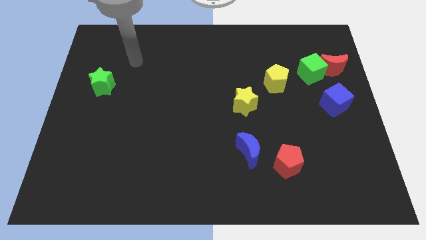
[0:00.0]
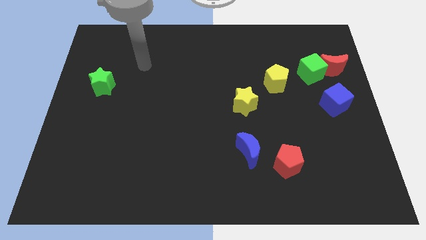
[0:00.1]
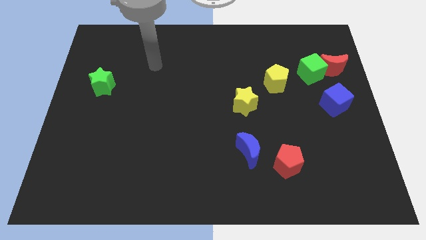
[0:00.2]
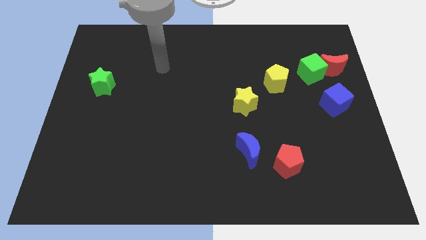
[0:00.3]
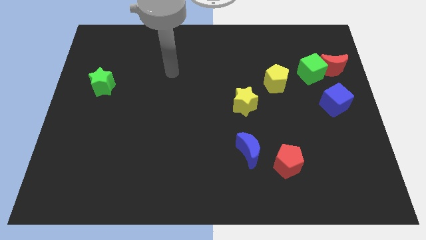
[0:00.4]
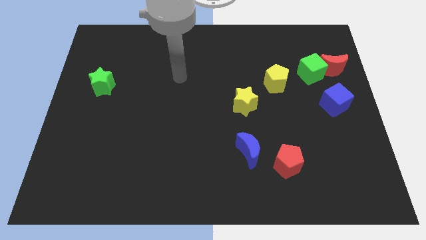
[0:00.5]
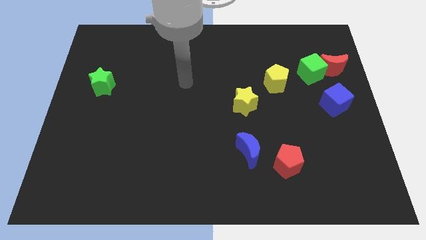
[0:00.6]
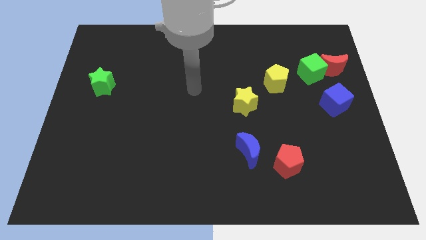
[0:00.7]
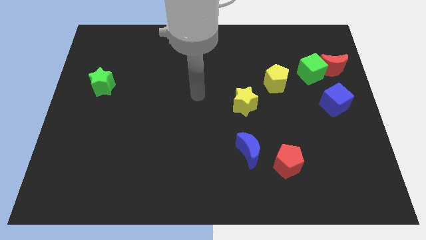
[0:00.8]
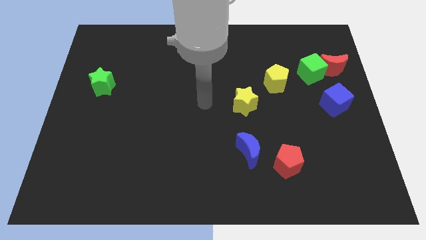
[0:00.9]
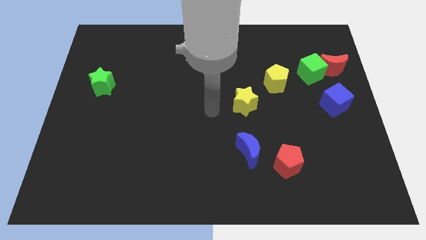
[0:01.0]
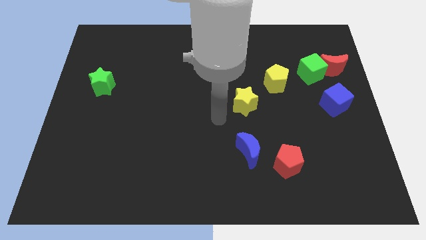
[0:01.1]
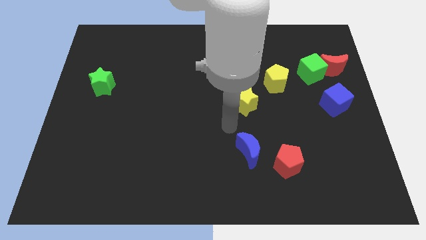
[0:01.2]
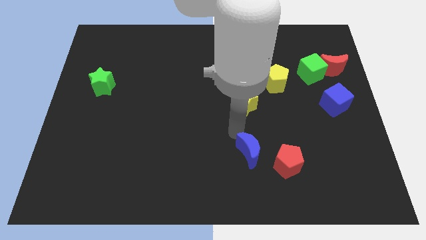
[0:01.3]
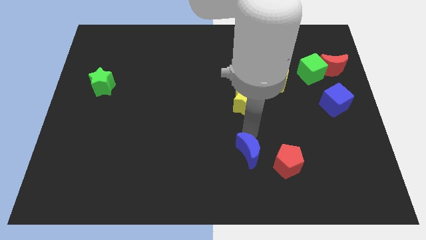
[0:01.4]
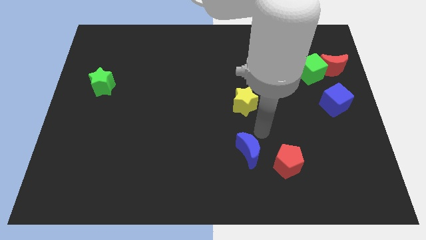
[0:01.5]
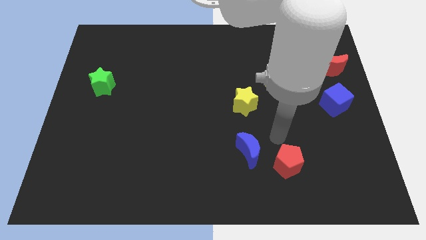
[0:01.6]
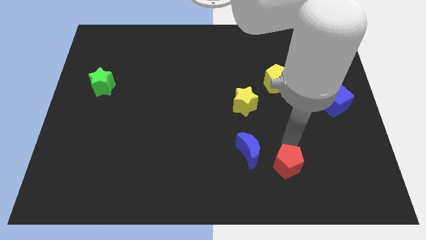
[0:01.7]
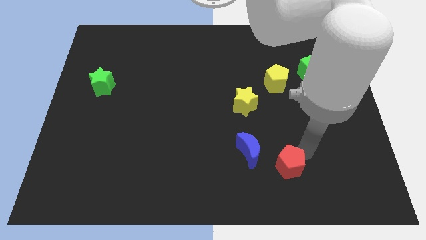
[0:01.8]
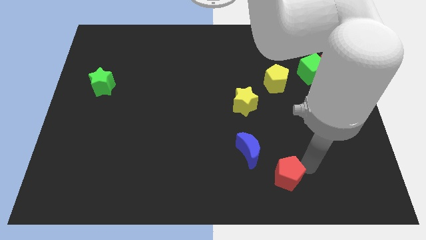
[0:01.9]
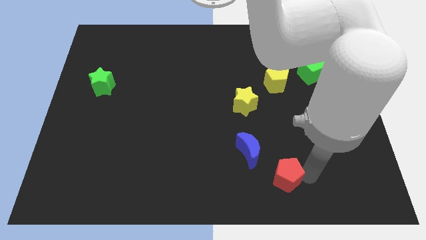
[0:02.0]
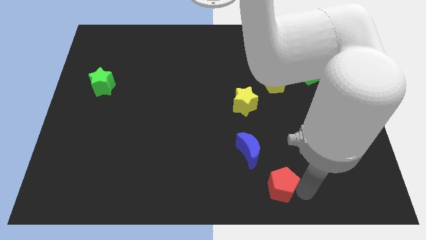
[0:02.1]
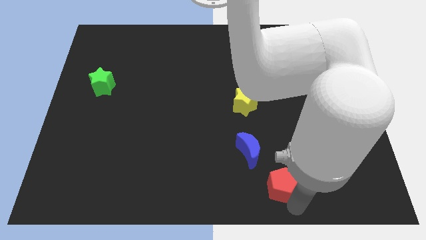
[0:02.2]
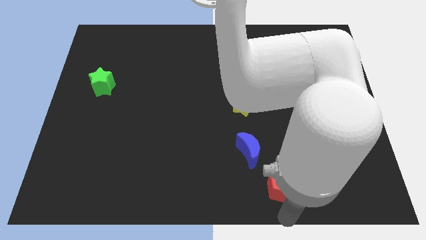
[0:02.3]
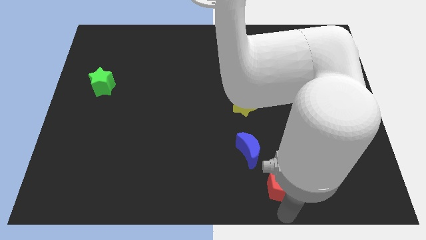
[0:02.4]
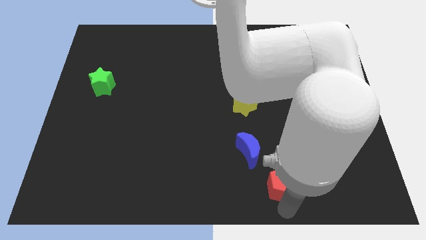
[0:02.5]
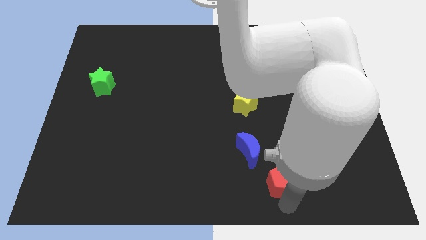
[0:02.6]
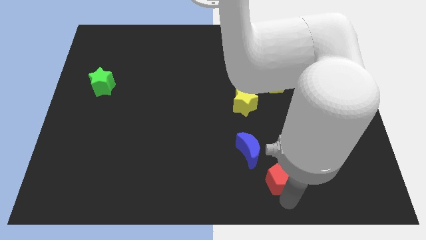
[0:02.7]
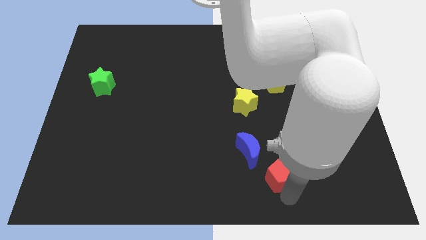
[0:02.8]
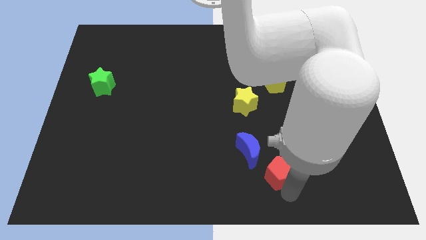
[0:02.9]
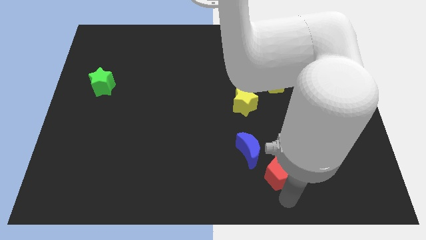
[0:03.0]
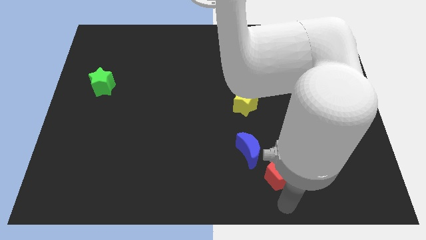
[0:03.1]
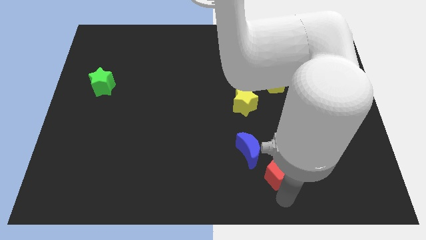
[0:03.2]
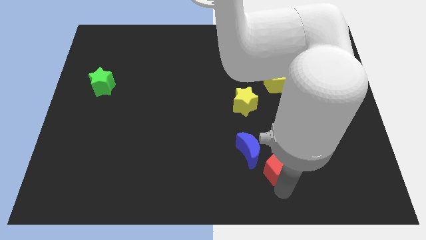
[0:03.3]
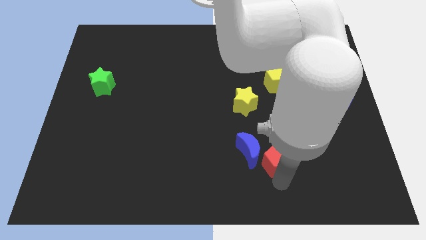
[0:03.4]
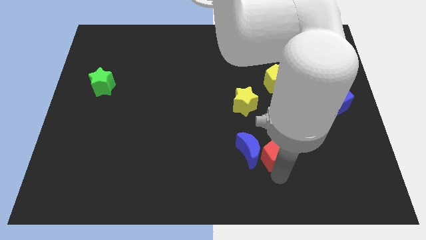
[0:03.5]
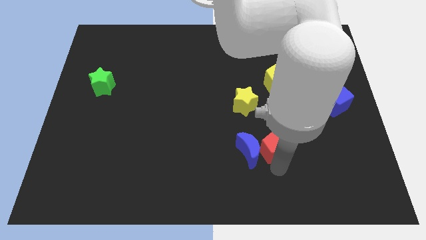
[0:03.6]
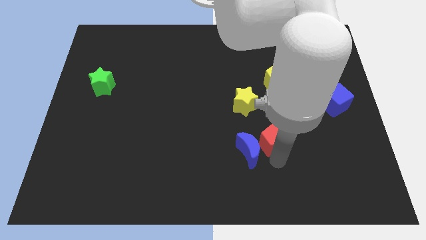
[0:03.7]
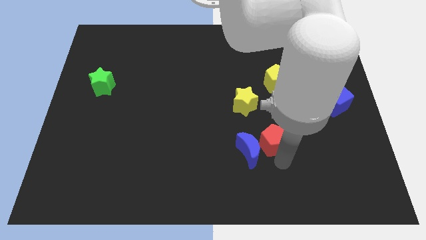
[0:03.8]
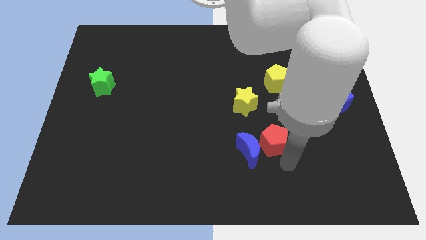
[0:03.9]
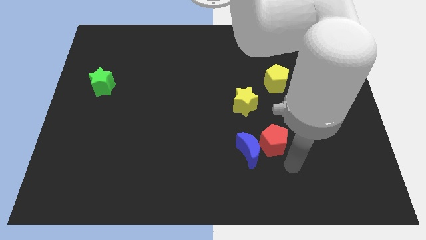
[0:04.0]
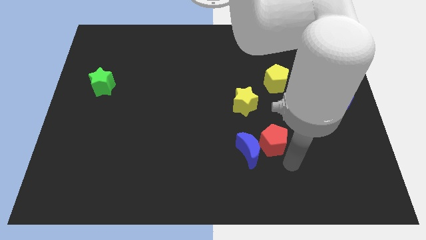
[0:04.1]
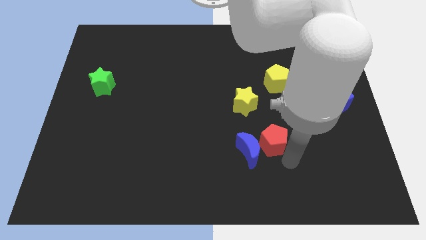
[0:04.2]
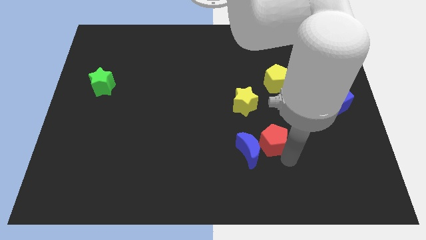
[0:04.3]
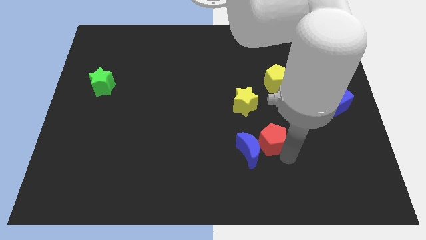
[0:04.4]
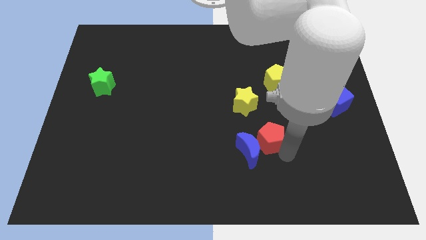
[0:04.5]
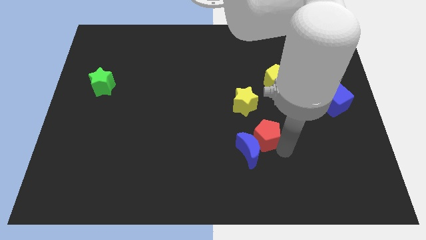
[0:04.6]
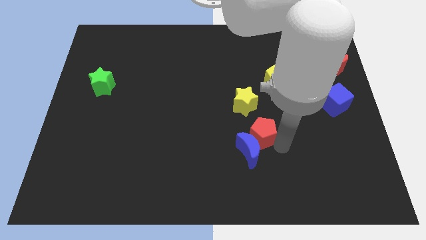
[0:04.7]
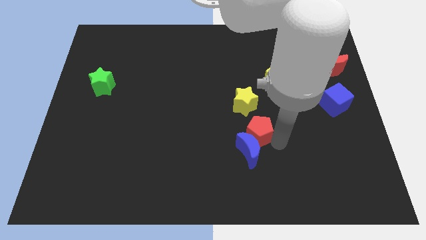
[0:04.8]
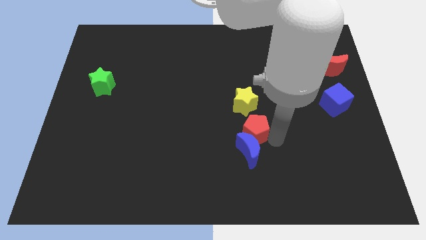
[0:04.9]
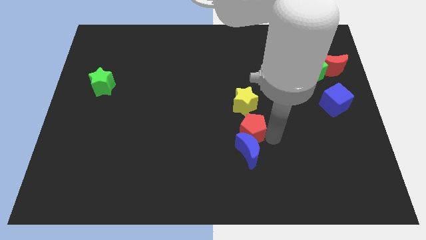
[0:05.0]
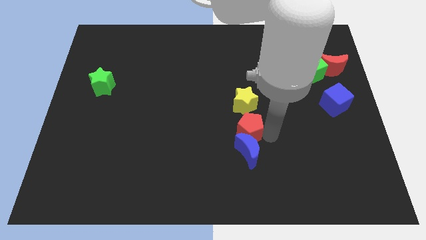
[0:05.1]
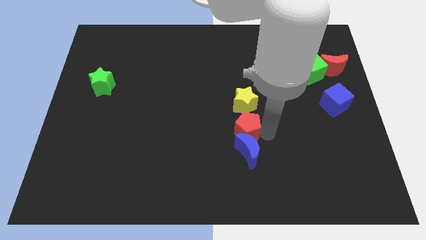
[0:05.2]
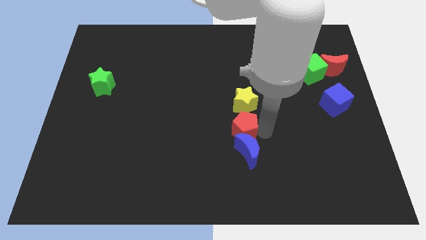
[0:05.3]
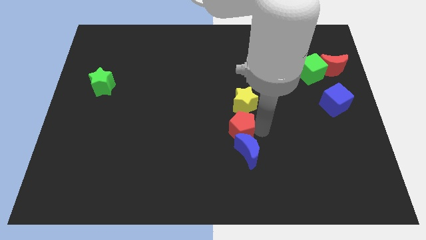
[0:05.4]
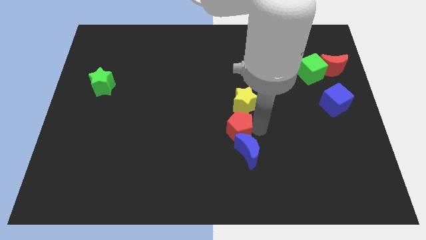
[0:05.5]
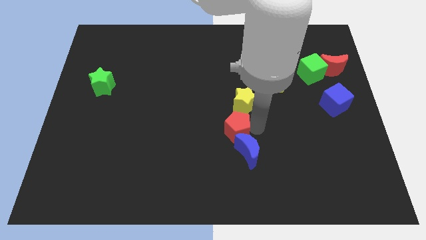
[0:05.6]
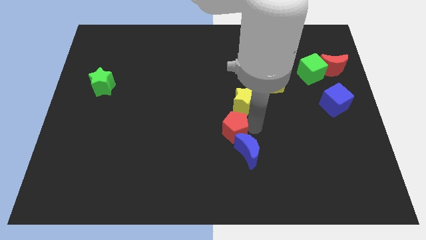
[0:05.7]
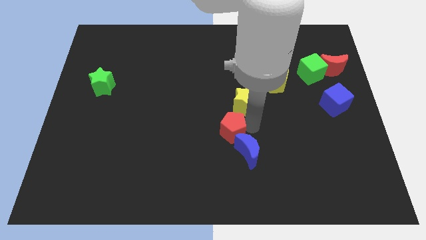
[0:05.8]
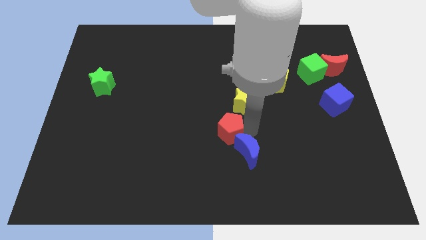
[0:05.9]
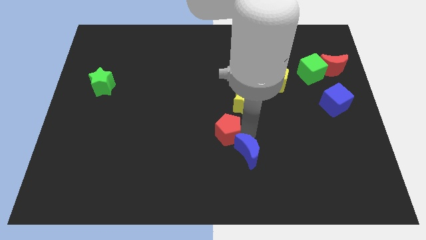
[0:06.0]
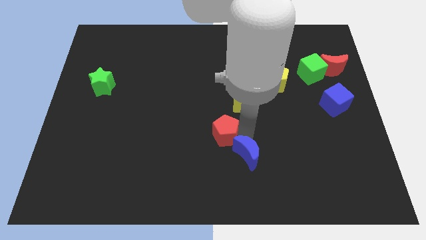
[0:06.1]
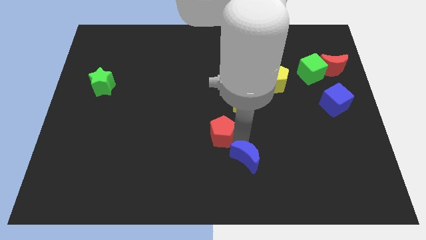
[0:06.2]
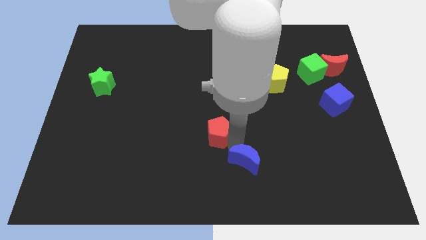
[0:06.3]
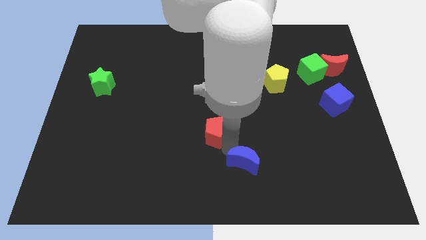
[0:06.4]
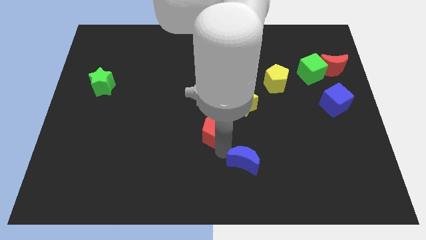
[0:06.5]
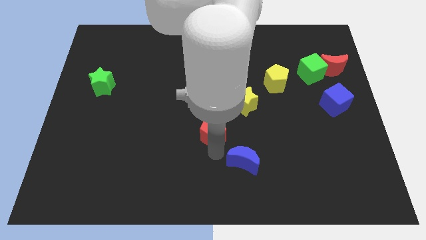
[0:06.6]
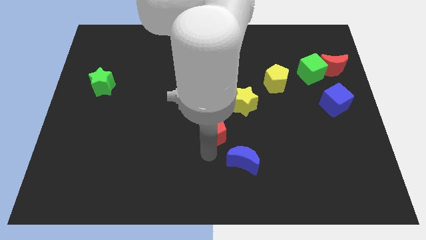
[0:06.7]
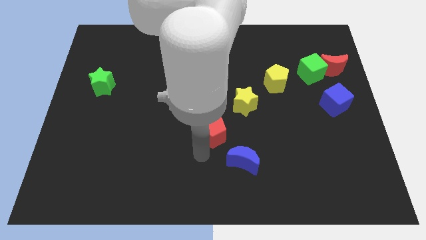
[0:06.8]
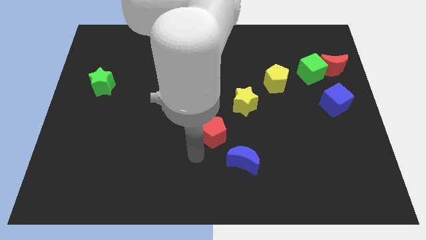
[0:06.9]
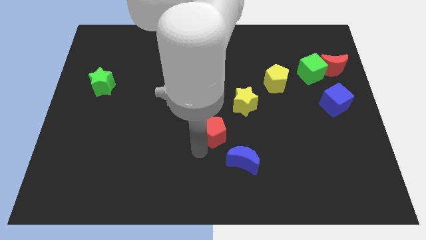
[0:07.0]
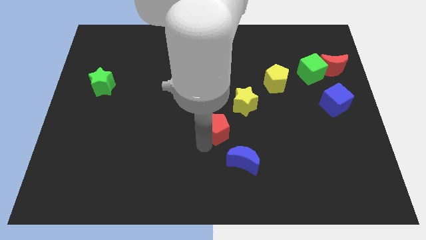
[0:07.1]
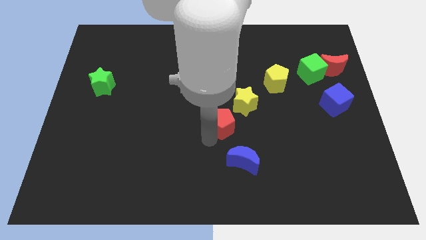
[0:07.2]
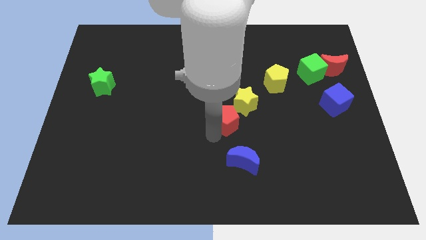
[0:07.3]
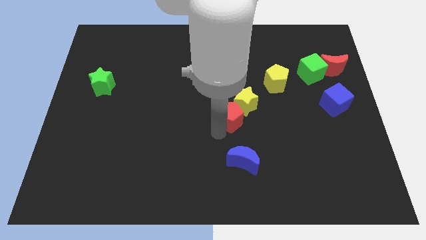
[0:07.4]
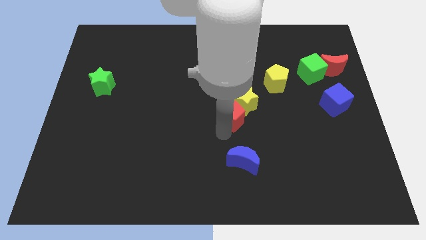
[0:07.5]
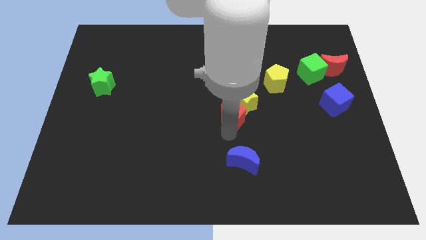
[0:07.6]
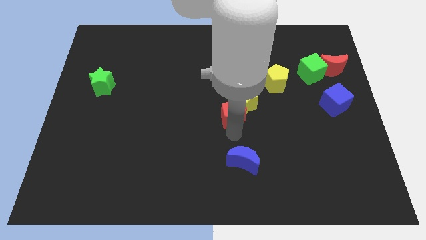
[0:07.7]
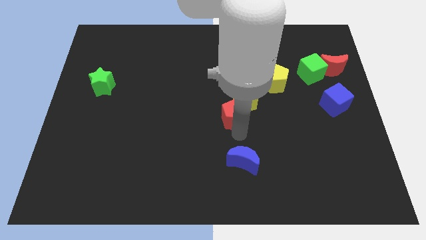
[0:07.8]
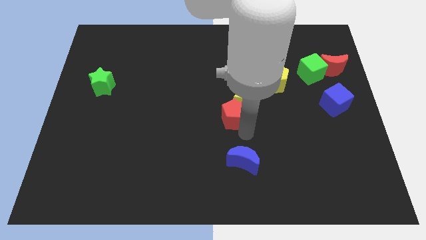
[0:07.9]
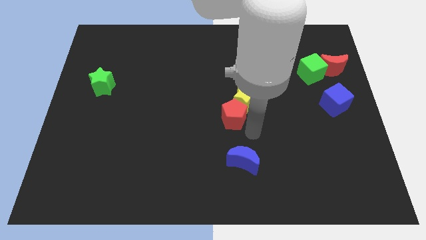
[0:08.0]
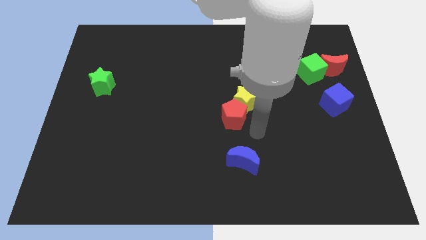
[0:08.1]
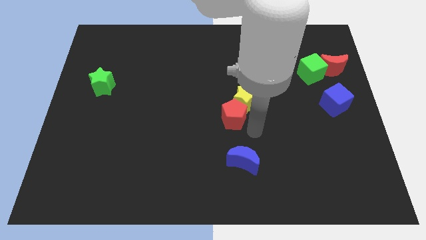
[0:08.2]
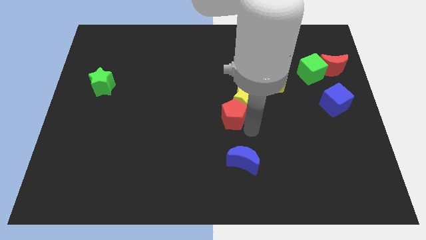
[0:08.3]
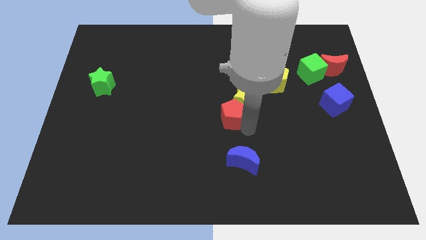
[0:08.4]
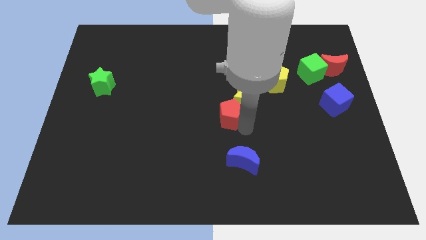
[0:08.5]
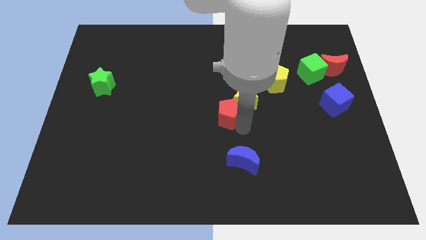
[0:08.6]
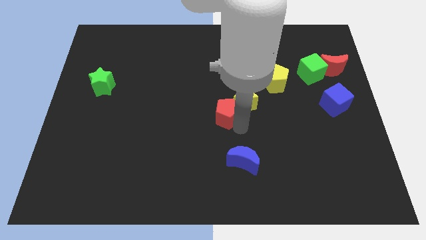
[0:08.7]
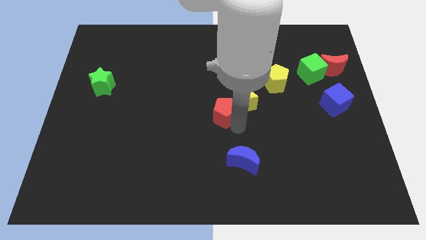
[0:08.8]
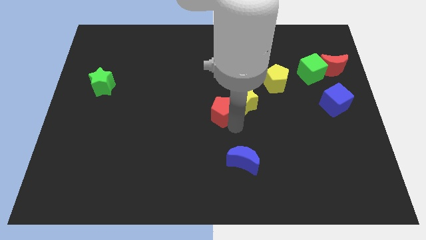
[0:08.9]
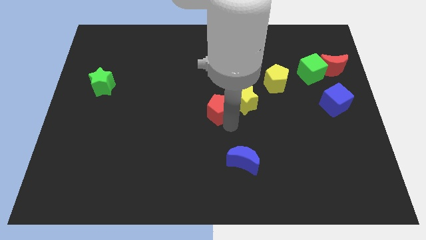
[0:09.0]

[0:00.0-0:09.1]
move the red pentagon upwards and then to the left
